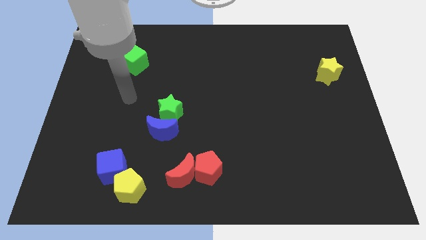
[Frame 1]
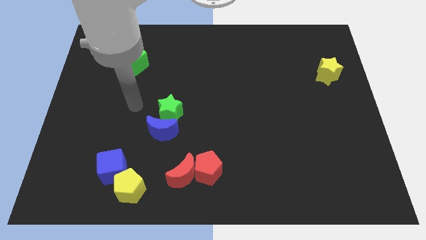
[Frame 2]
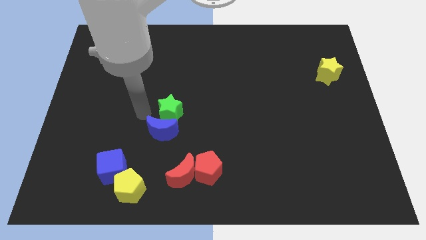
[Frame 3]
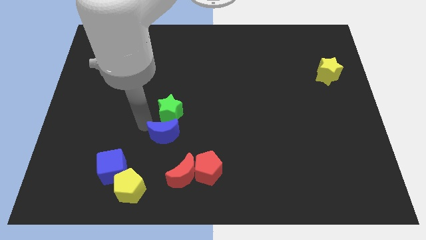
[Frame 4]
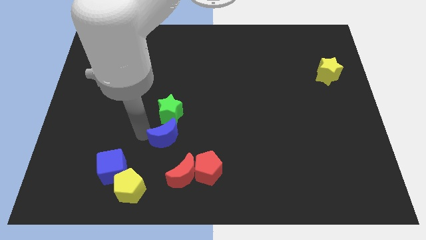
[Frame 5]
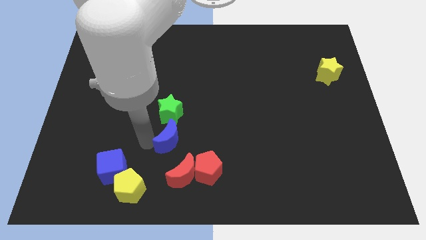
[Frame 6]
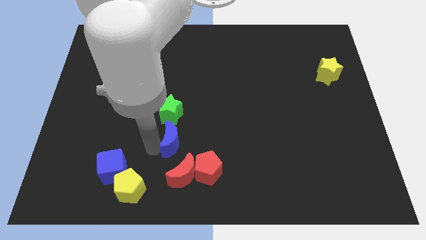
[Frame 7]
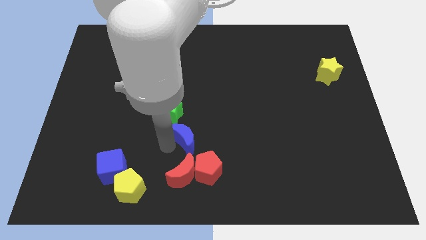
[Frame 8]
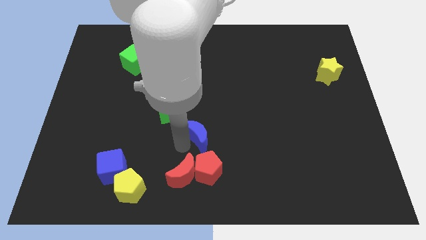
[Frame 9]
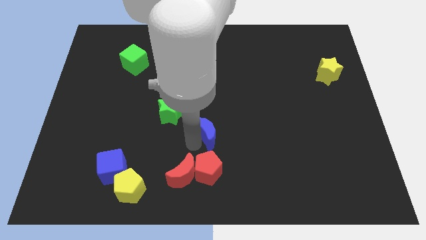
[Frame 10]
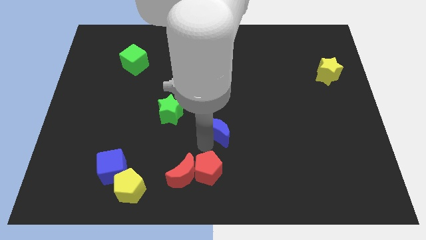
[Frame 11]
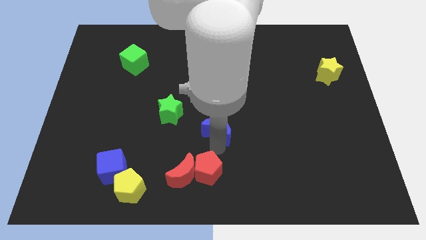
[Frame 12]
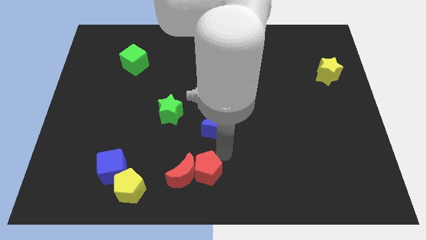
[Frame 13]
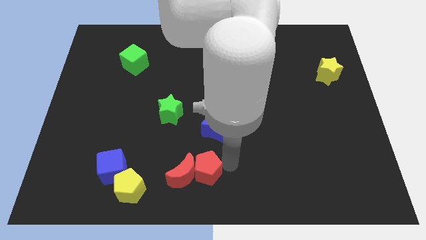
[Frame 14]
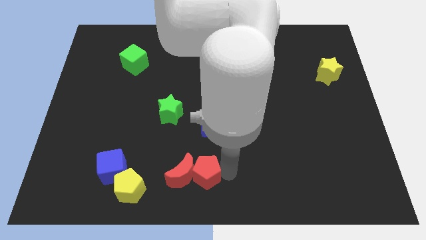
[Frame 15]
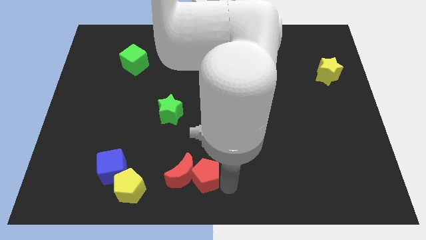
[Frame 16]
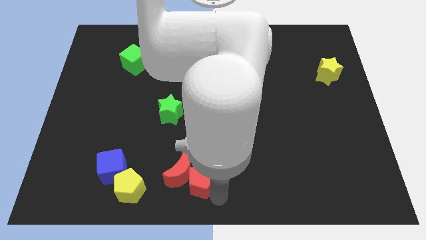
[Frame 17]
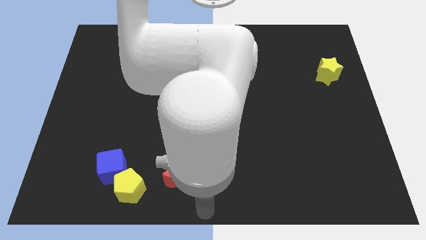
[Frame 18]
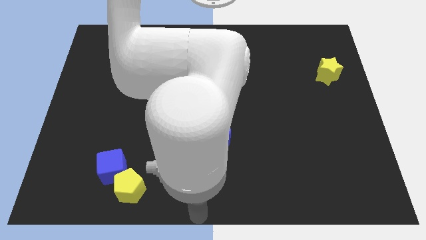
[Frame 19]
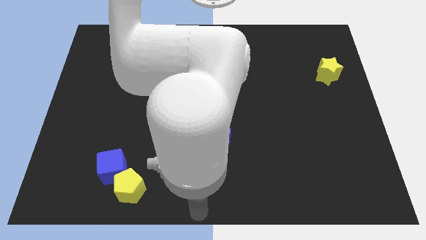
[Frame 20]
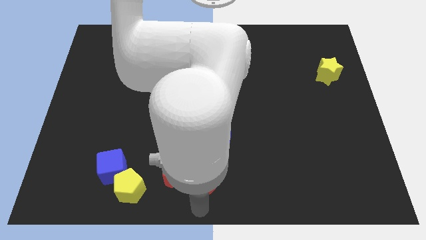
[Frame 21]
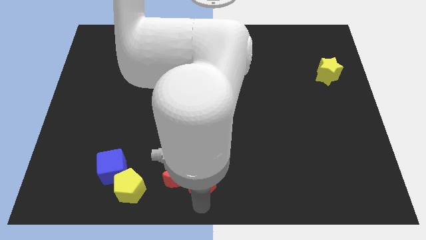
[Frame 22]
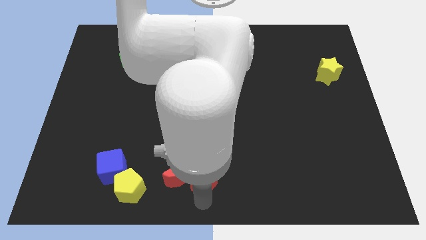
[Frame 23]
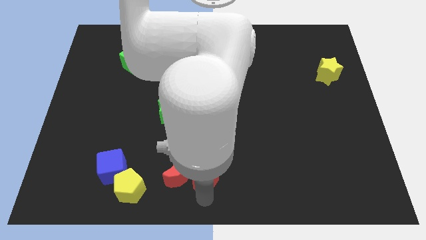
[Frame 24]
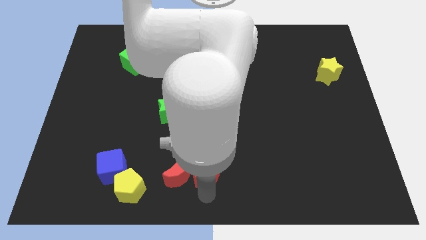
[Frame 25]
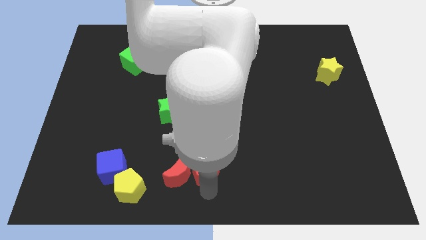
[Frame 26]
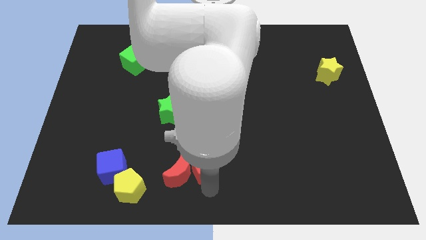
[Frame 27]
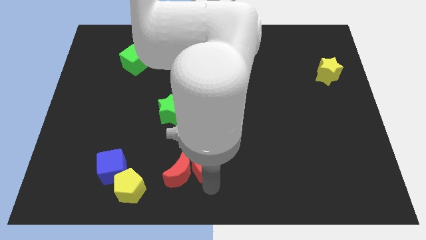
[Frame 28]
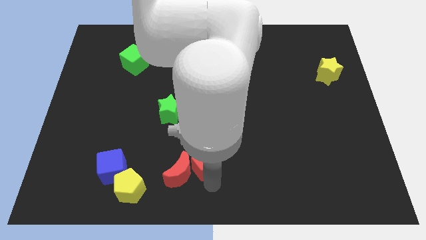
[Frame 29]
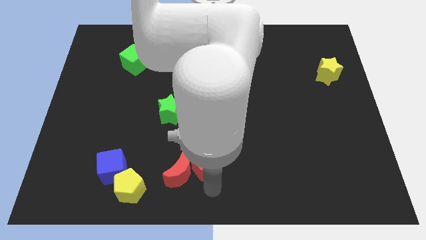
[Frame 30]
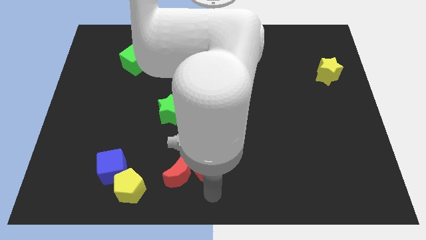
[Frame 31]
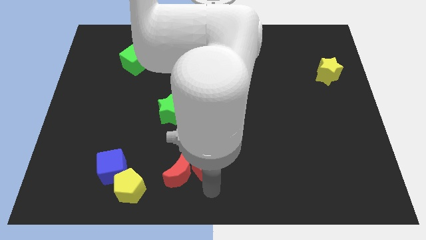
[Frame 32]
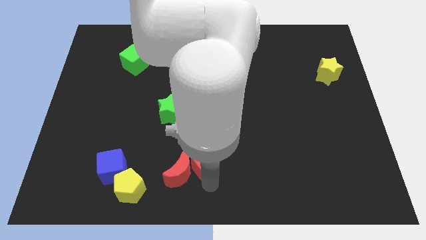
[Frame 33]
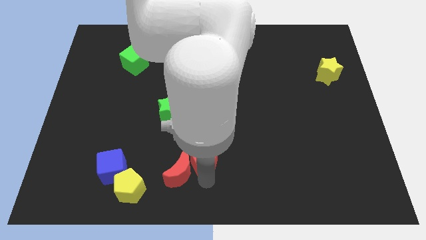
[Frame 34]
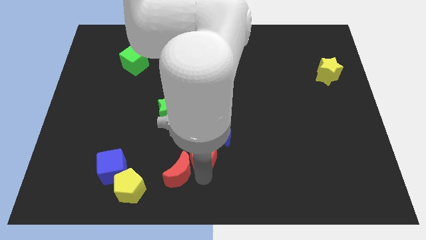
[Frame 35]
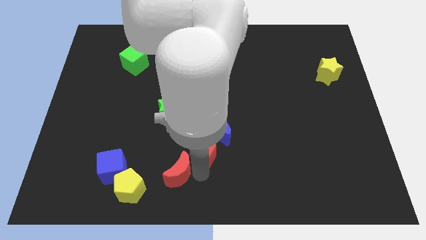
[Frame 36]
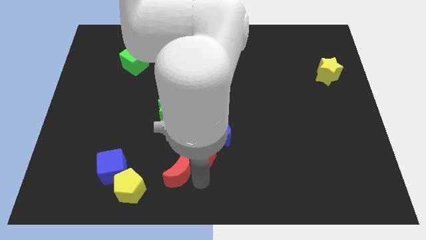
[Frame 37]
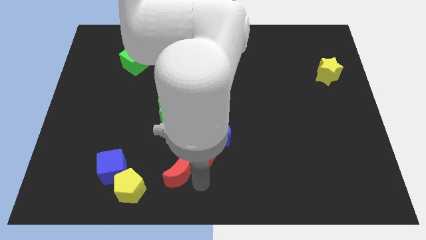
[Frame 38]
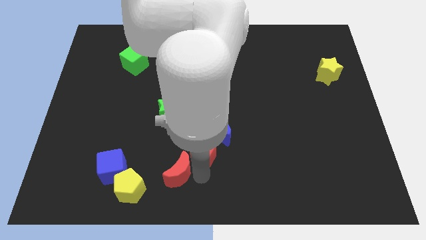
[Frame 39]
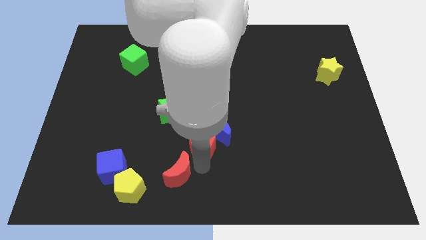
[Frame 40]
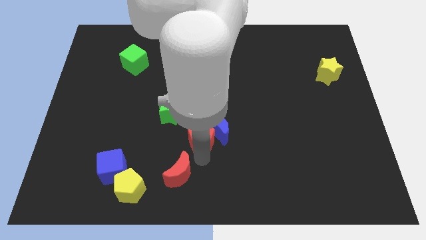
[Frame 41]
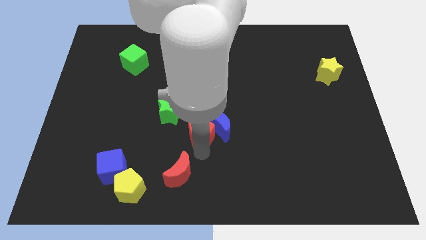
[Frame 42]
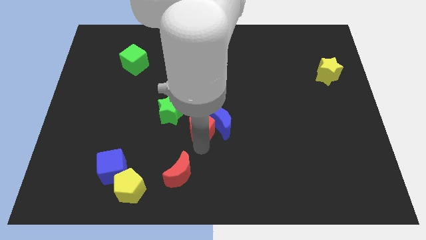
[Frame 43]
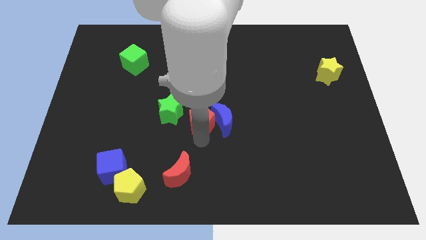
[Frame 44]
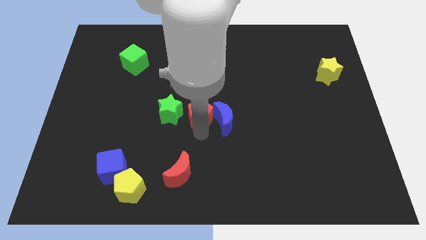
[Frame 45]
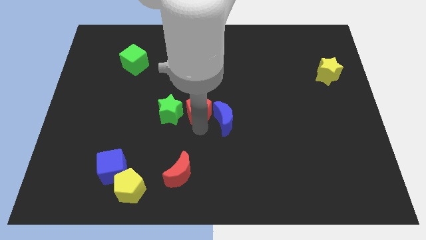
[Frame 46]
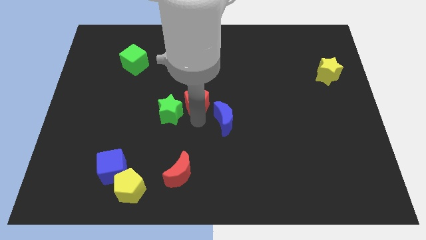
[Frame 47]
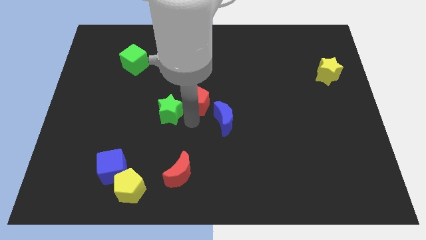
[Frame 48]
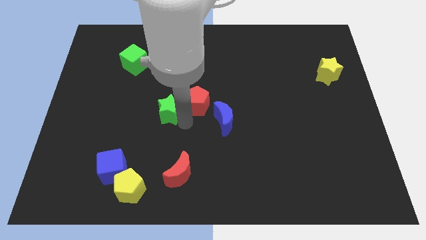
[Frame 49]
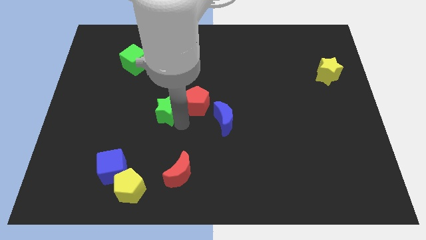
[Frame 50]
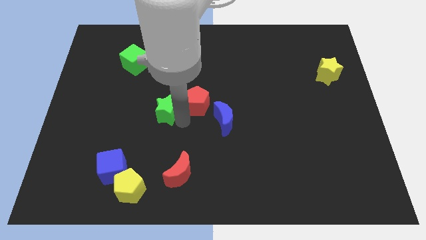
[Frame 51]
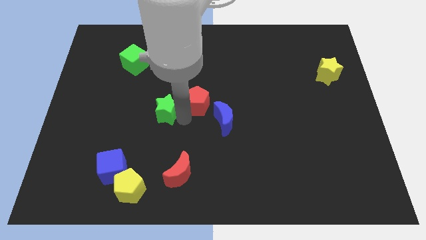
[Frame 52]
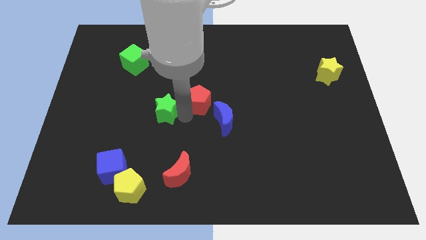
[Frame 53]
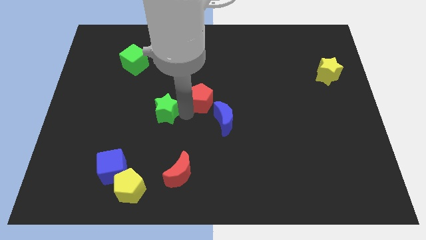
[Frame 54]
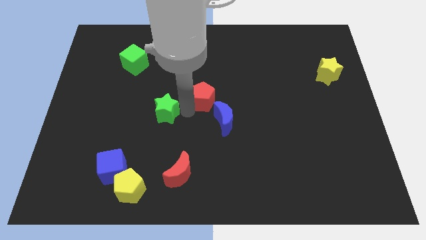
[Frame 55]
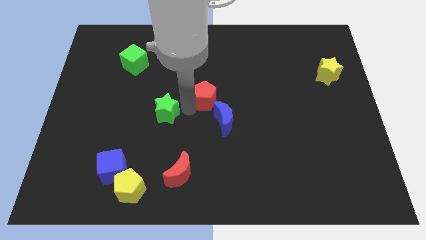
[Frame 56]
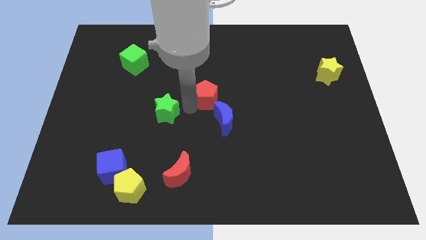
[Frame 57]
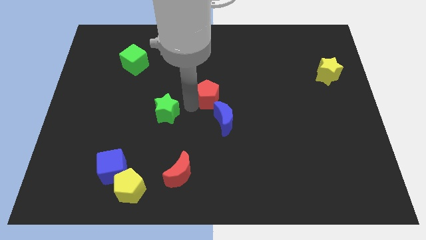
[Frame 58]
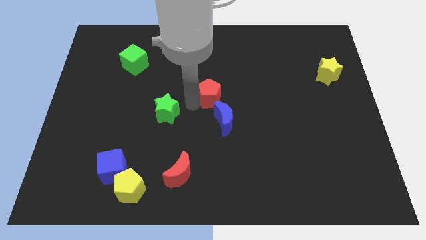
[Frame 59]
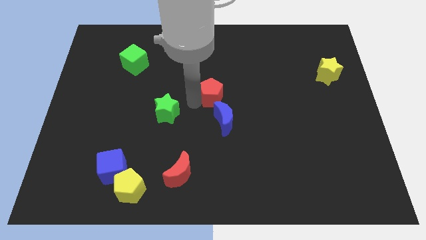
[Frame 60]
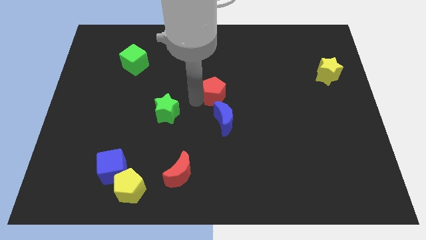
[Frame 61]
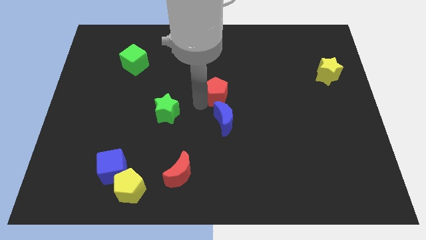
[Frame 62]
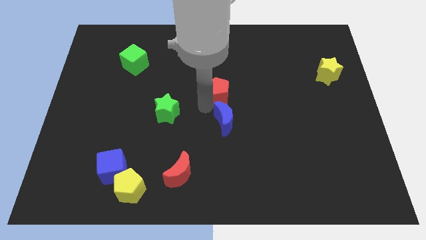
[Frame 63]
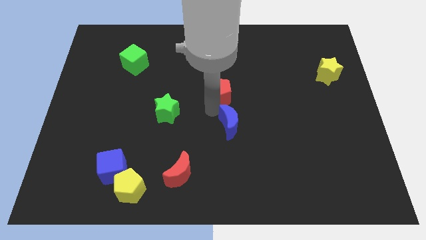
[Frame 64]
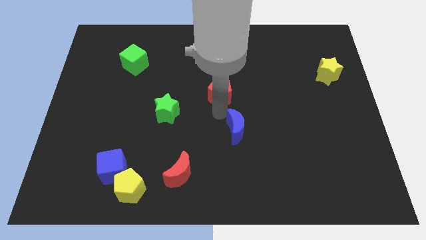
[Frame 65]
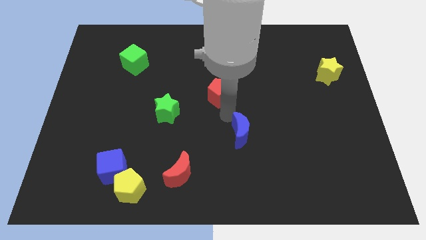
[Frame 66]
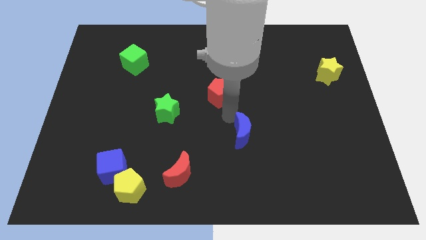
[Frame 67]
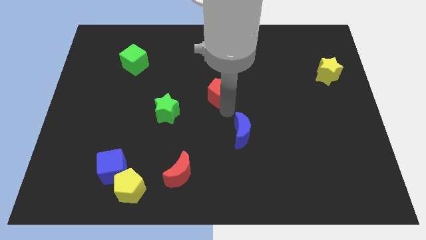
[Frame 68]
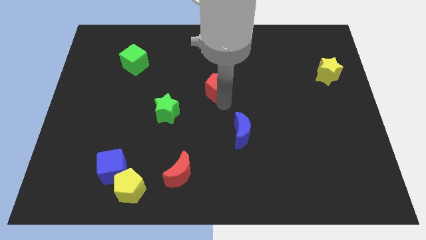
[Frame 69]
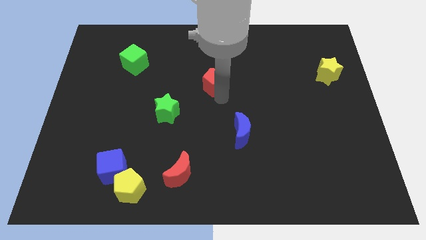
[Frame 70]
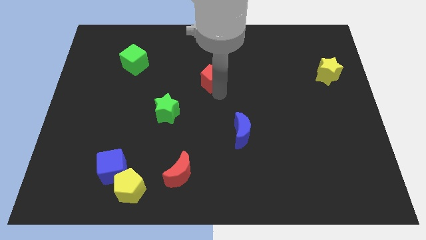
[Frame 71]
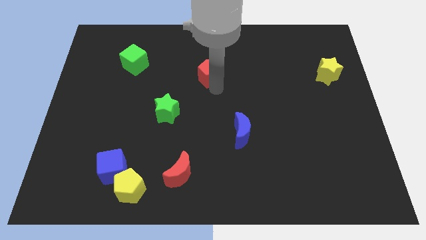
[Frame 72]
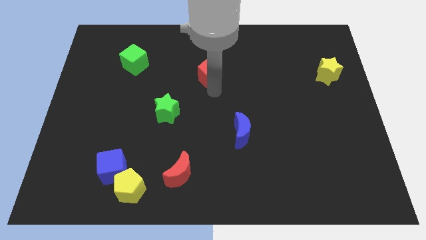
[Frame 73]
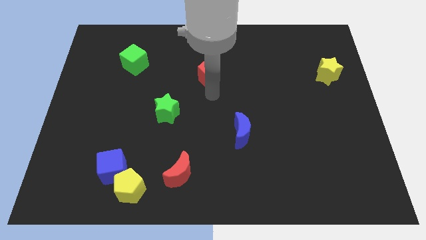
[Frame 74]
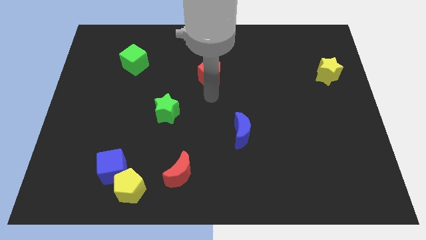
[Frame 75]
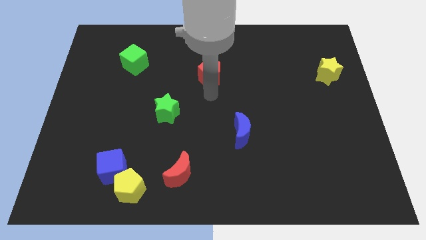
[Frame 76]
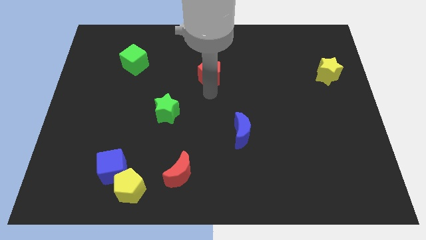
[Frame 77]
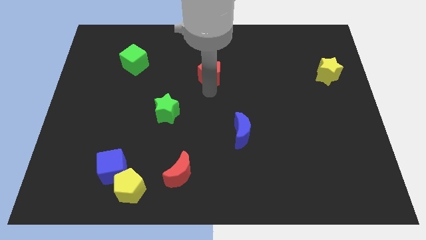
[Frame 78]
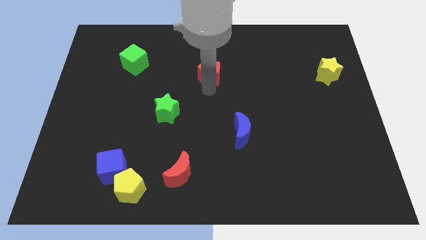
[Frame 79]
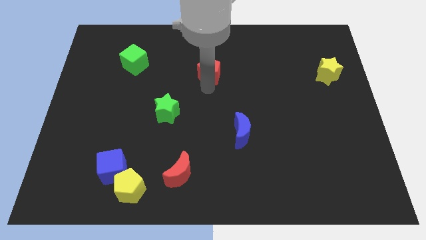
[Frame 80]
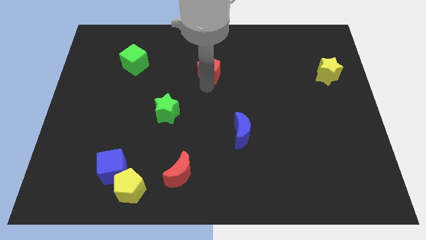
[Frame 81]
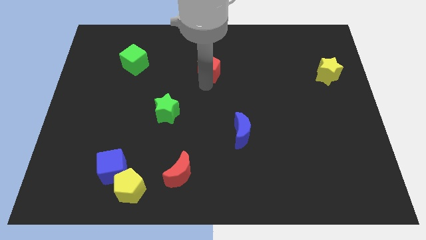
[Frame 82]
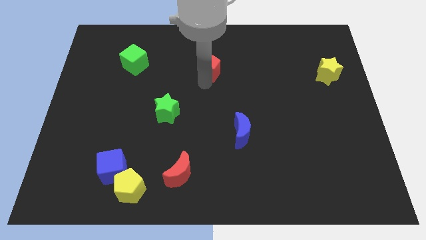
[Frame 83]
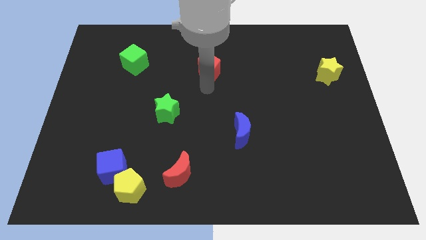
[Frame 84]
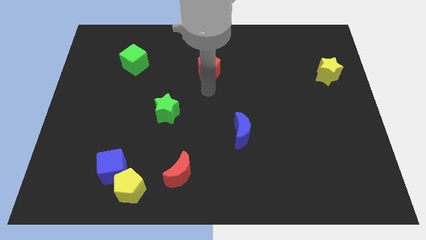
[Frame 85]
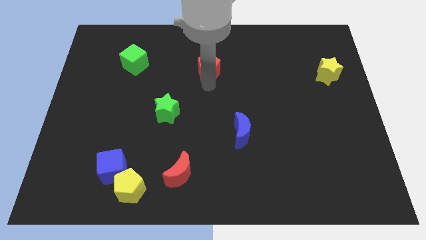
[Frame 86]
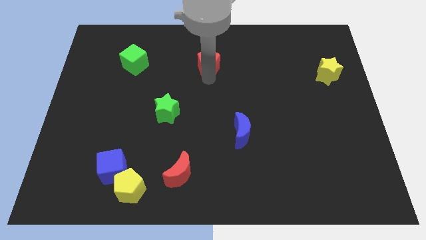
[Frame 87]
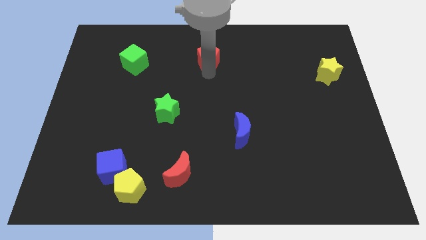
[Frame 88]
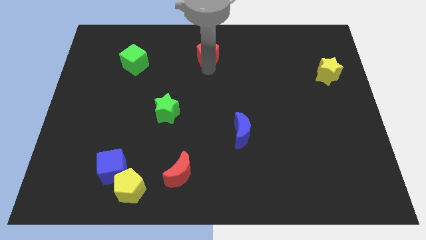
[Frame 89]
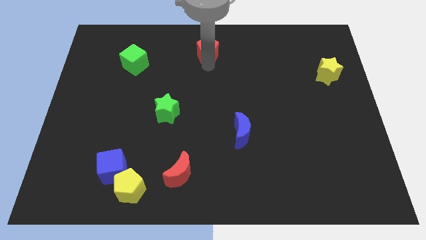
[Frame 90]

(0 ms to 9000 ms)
push the red pentagon to the top
